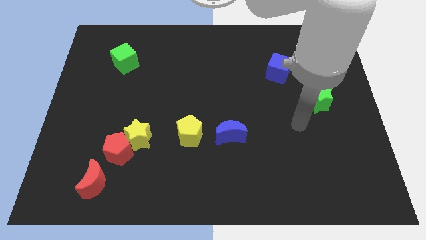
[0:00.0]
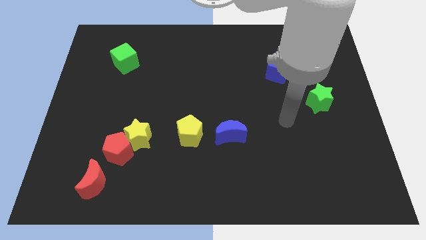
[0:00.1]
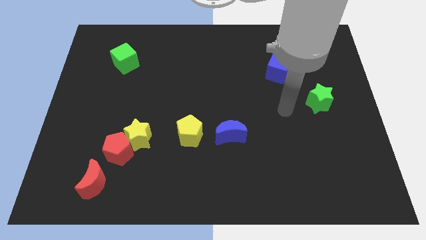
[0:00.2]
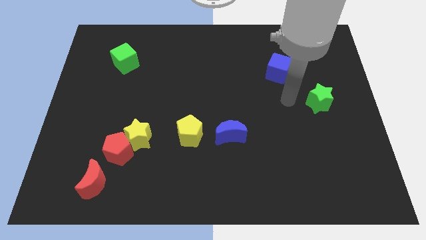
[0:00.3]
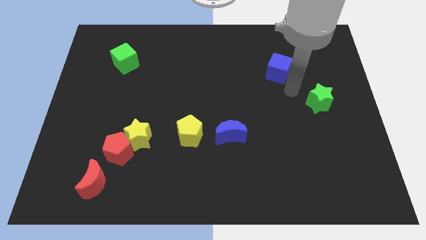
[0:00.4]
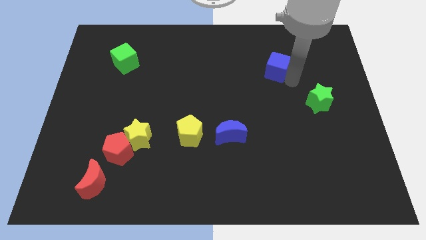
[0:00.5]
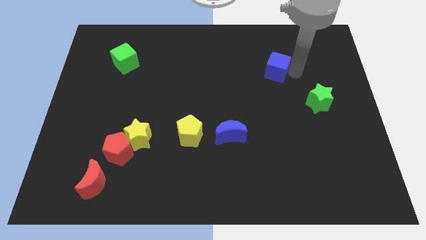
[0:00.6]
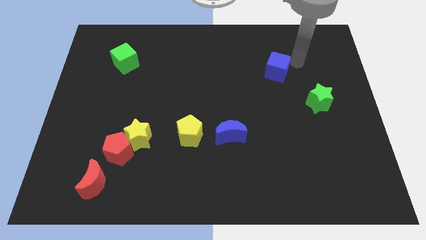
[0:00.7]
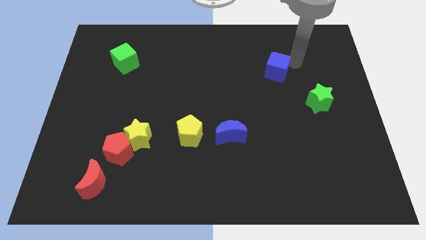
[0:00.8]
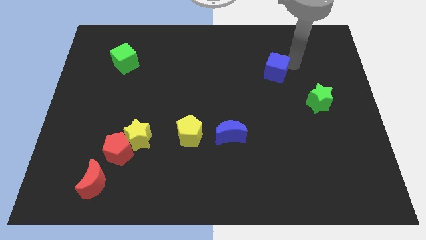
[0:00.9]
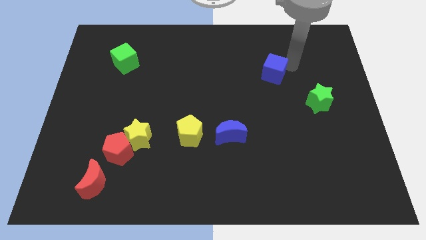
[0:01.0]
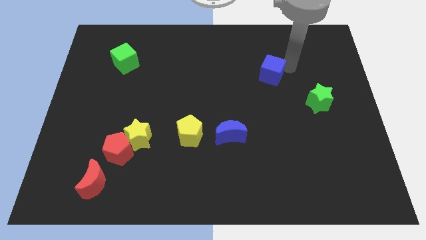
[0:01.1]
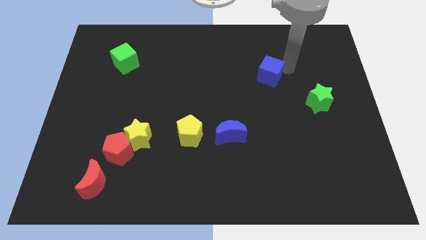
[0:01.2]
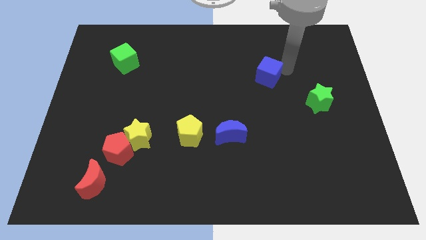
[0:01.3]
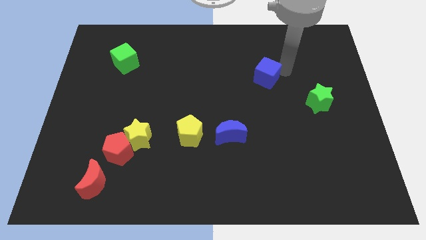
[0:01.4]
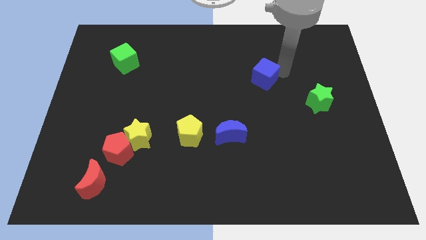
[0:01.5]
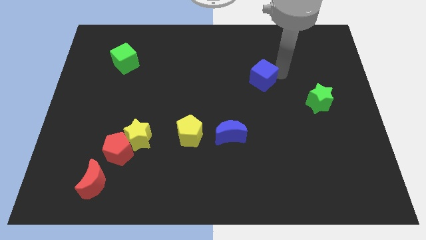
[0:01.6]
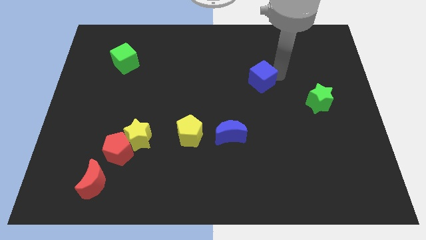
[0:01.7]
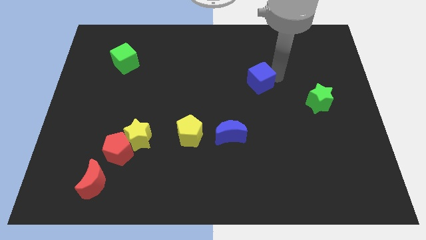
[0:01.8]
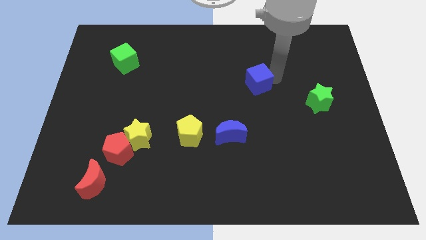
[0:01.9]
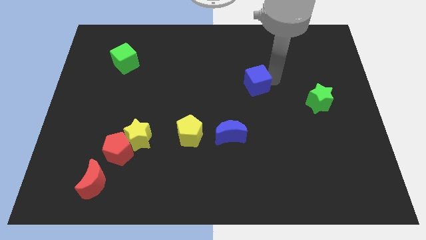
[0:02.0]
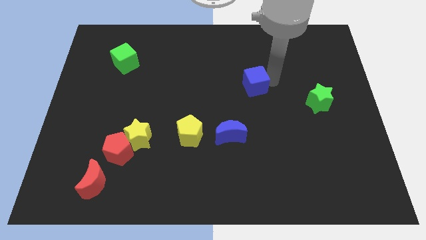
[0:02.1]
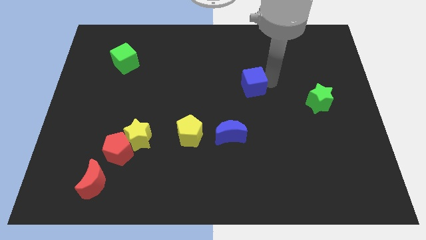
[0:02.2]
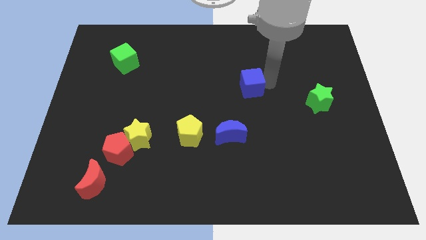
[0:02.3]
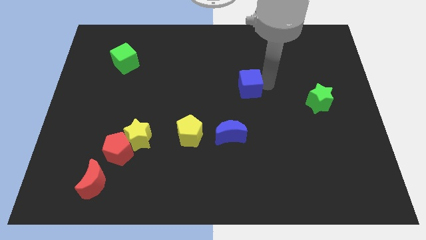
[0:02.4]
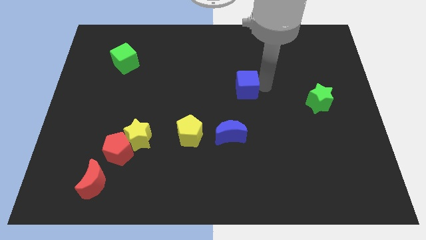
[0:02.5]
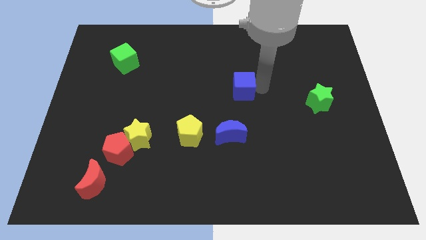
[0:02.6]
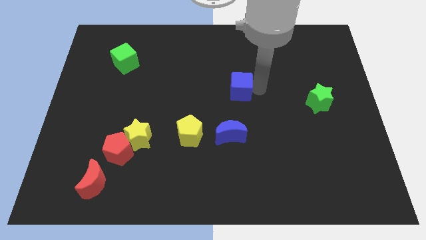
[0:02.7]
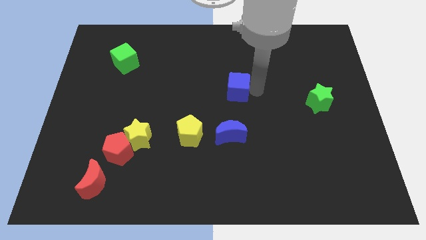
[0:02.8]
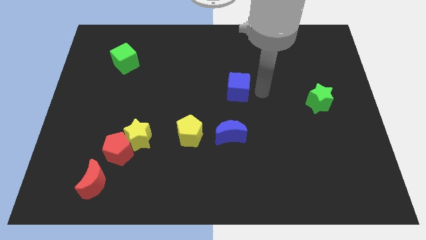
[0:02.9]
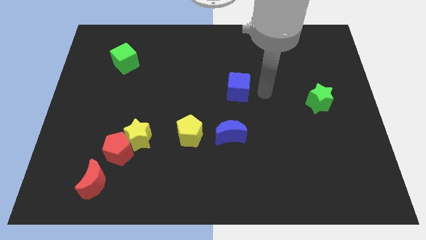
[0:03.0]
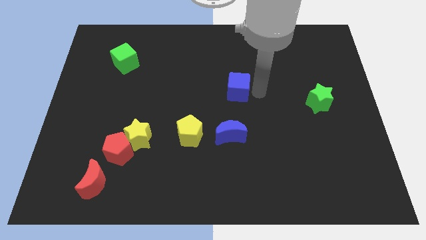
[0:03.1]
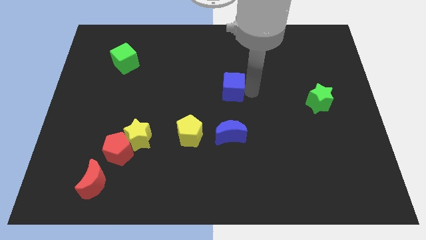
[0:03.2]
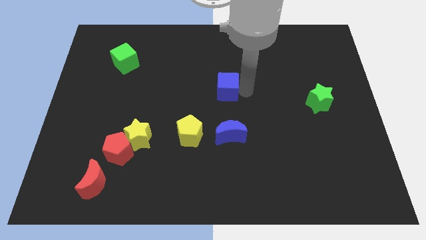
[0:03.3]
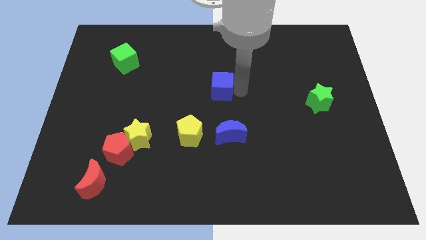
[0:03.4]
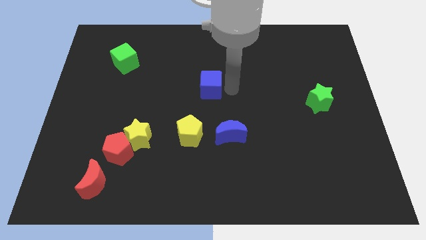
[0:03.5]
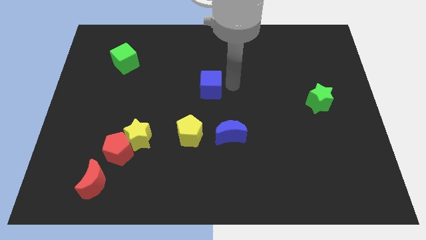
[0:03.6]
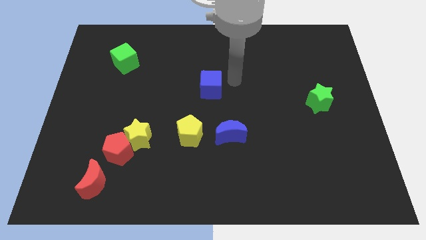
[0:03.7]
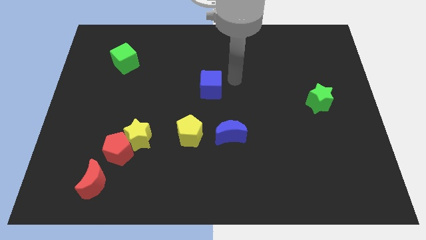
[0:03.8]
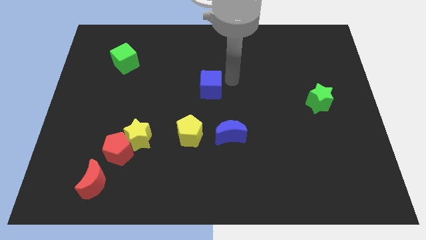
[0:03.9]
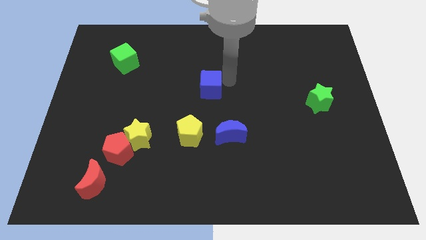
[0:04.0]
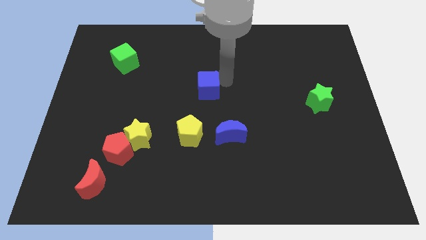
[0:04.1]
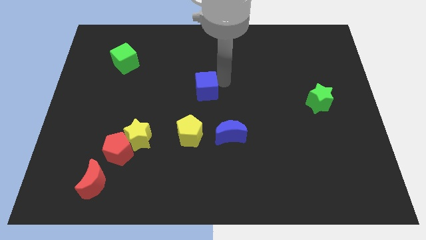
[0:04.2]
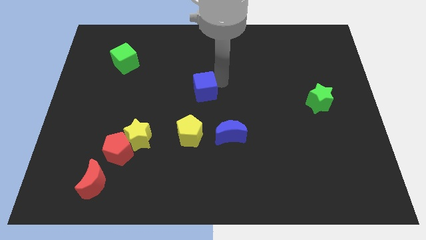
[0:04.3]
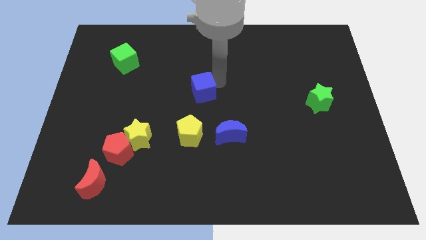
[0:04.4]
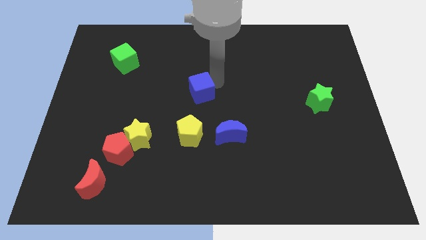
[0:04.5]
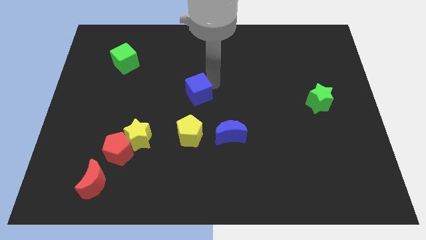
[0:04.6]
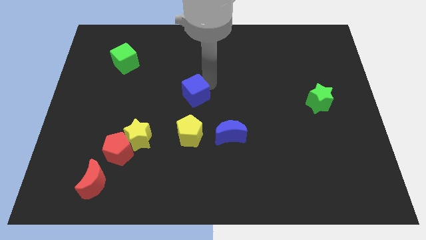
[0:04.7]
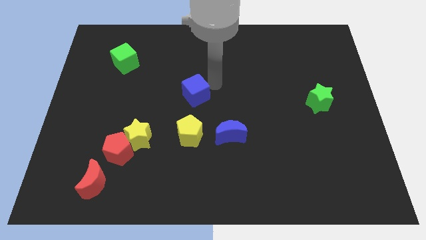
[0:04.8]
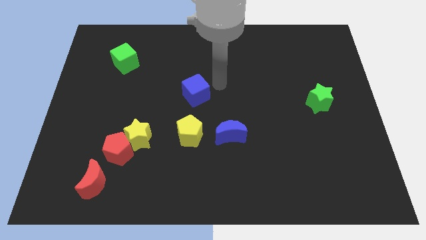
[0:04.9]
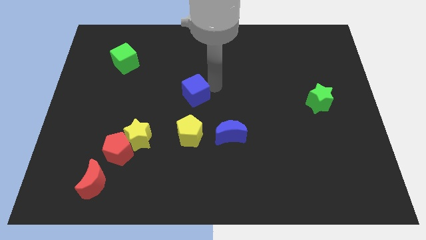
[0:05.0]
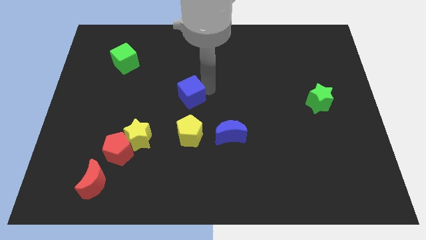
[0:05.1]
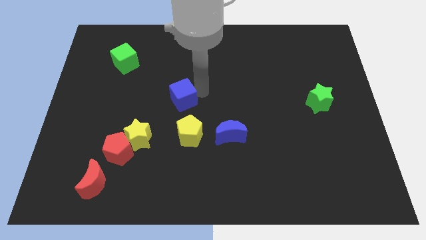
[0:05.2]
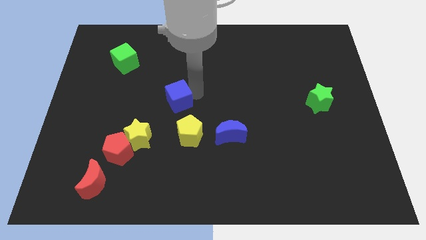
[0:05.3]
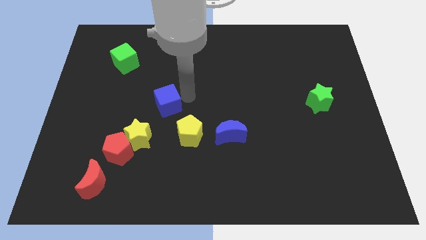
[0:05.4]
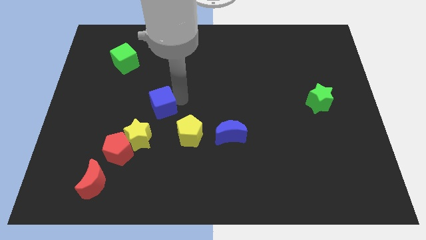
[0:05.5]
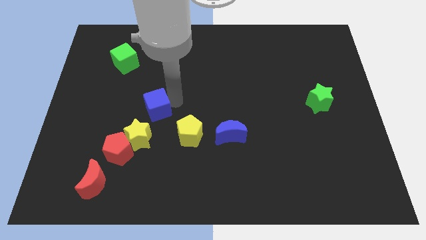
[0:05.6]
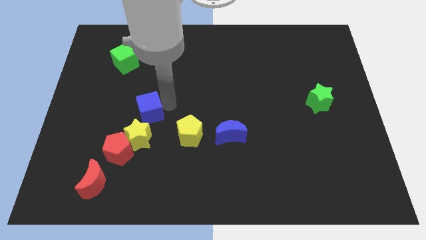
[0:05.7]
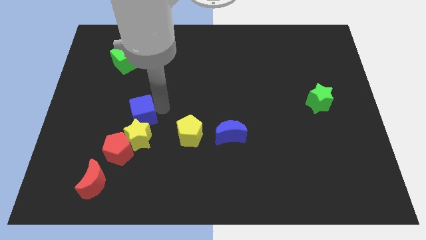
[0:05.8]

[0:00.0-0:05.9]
move the blue cube to the top side of the red pentagon

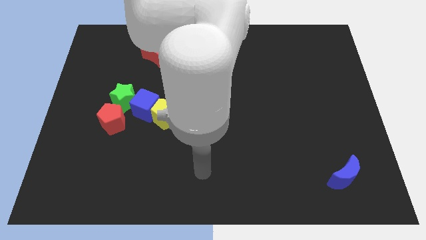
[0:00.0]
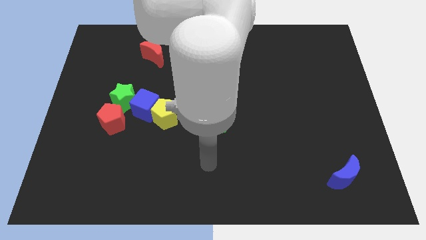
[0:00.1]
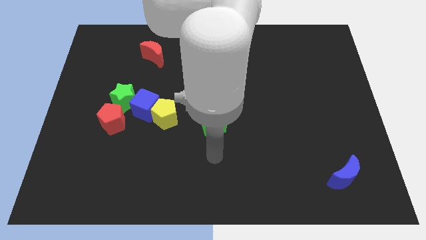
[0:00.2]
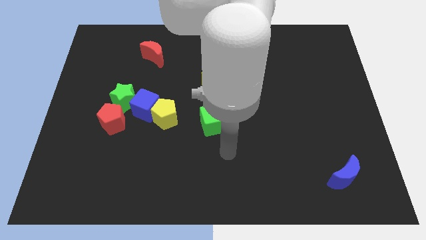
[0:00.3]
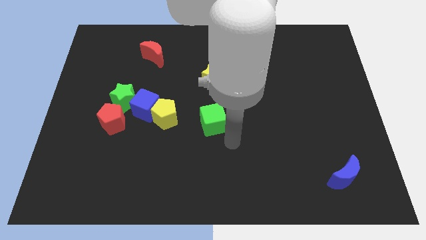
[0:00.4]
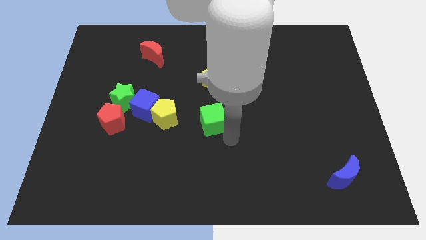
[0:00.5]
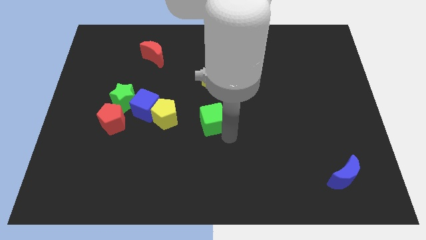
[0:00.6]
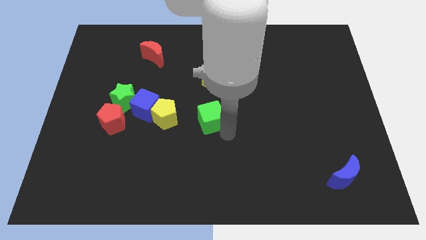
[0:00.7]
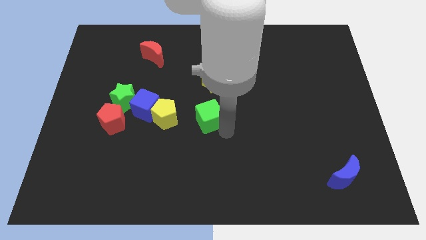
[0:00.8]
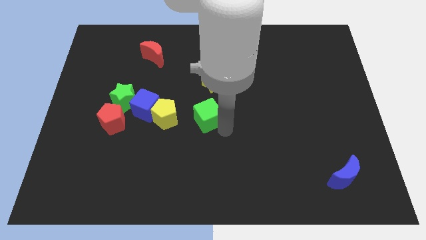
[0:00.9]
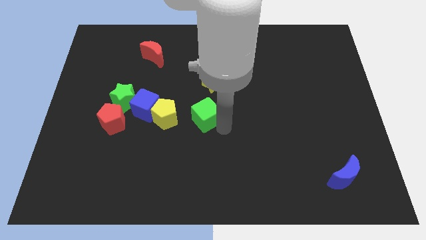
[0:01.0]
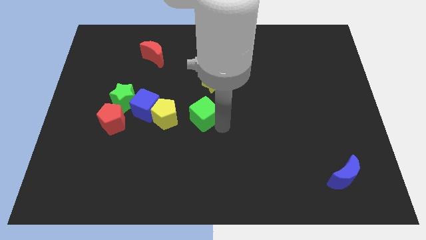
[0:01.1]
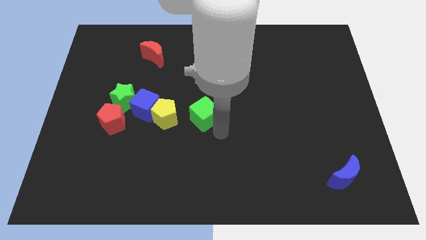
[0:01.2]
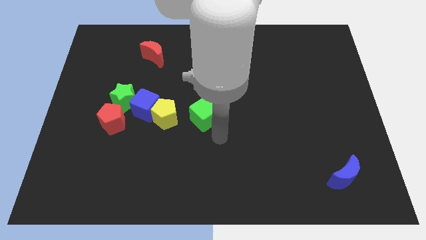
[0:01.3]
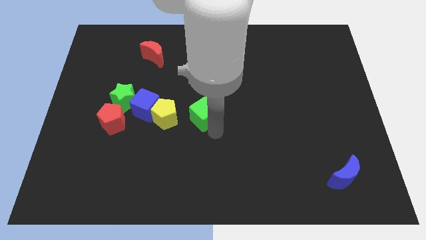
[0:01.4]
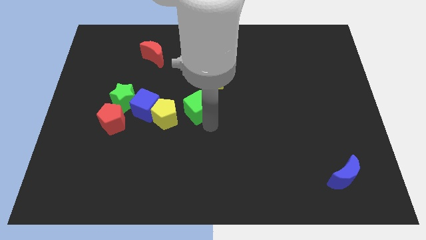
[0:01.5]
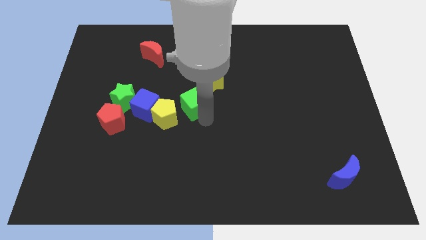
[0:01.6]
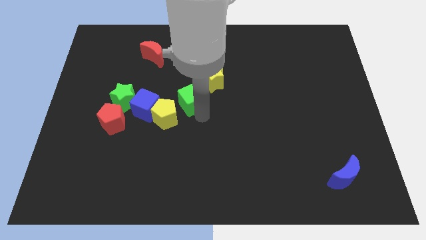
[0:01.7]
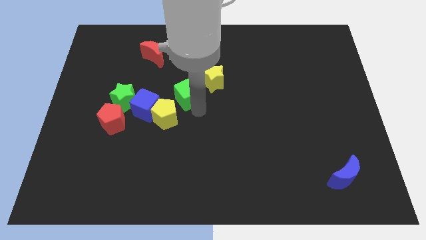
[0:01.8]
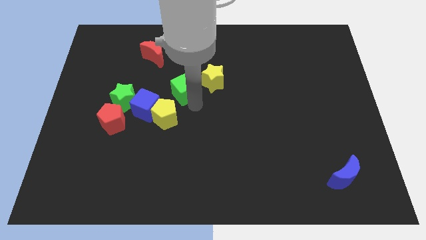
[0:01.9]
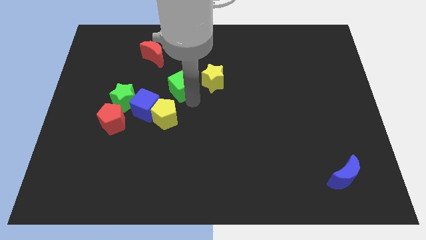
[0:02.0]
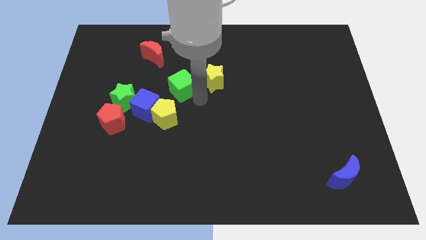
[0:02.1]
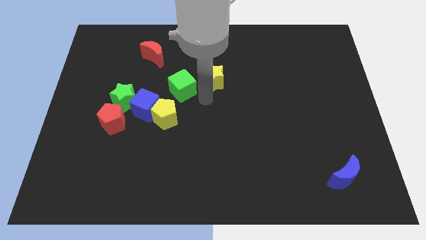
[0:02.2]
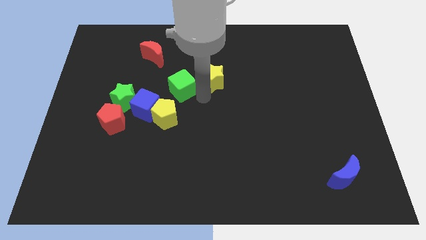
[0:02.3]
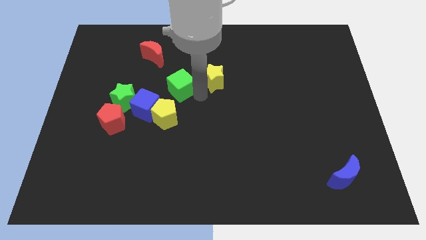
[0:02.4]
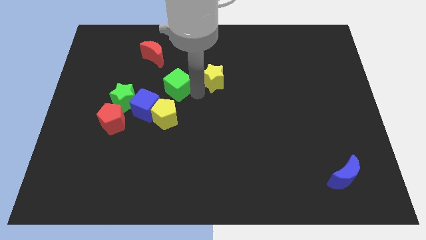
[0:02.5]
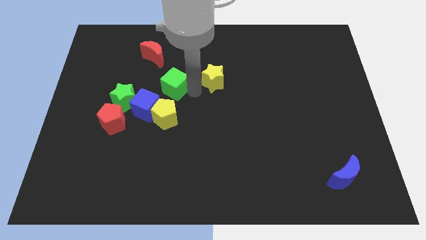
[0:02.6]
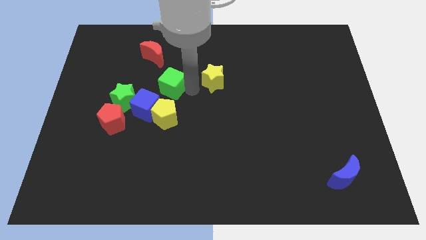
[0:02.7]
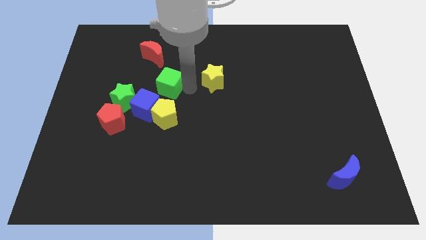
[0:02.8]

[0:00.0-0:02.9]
move the green cube to the top side of the blue cube
